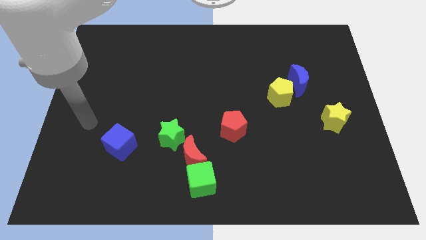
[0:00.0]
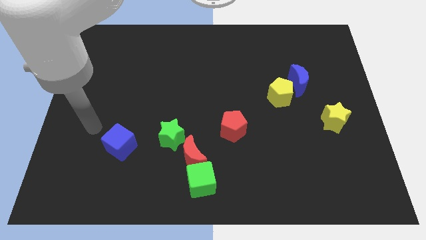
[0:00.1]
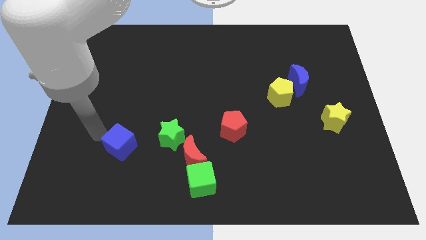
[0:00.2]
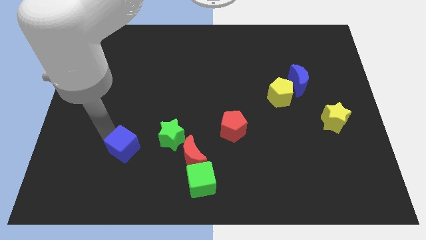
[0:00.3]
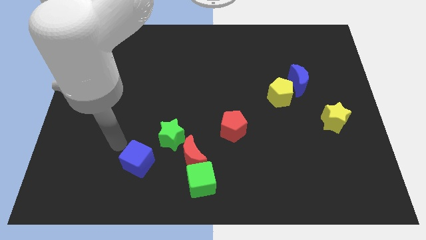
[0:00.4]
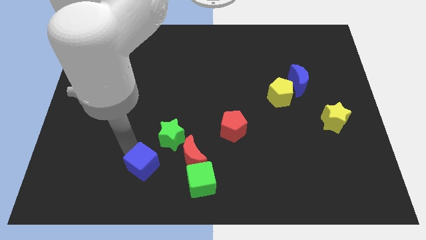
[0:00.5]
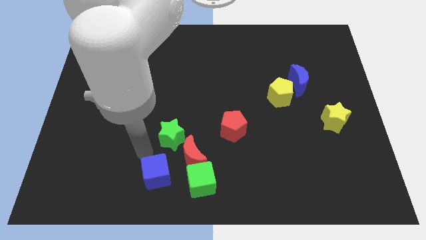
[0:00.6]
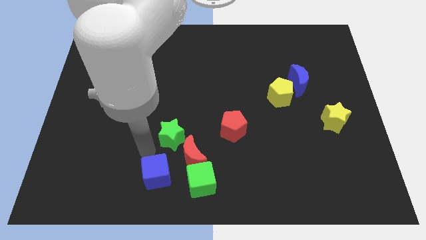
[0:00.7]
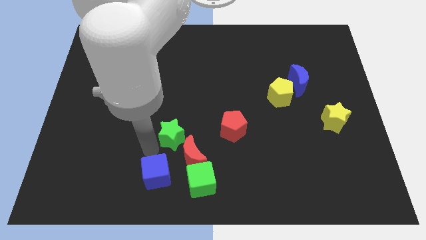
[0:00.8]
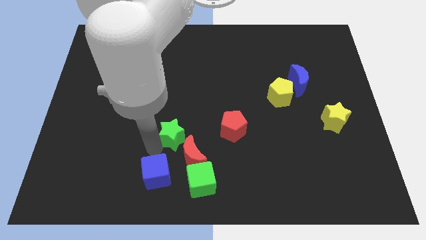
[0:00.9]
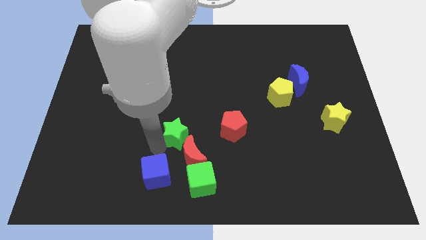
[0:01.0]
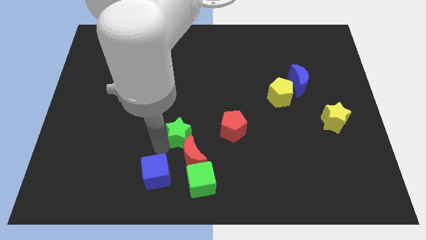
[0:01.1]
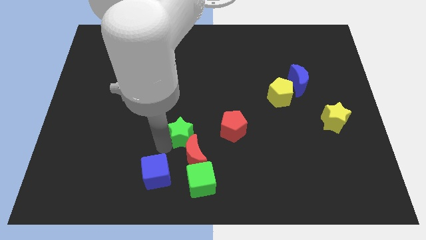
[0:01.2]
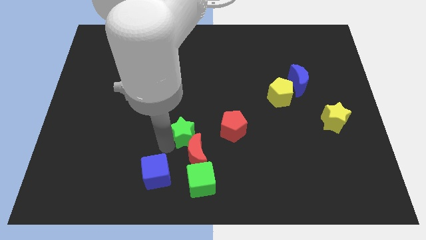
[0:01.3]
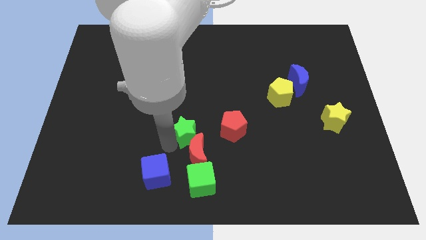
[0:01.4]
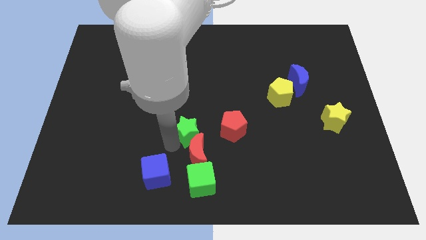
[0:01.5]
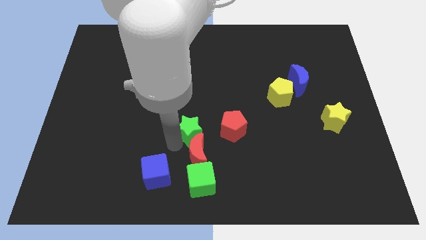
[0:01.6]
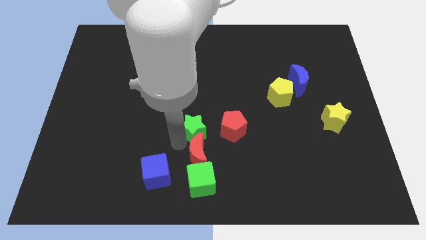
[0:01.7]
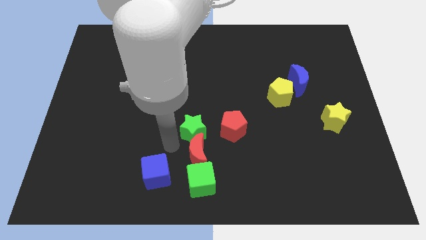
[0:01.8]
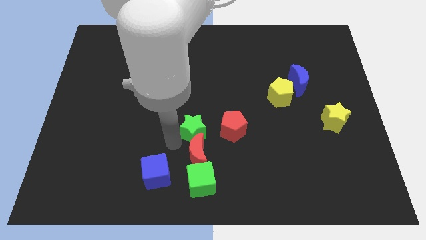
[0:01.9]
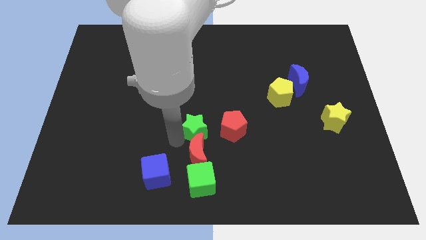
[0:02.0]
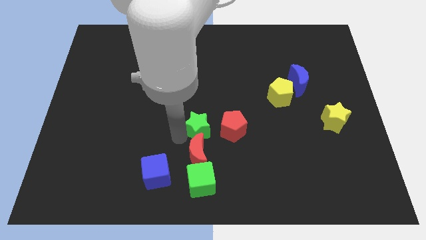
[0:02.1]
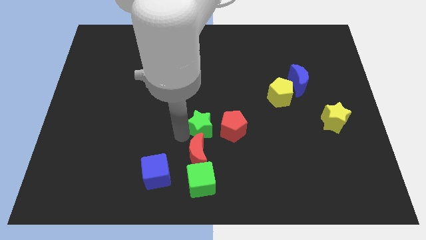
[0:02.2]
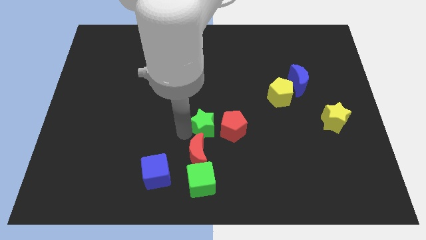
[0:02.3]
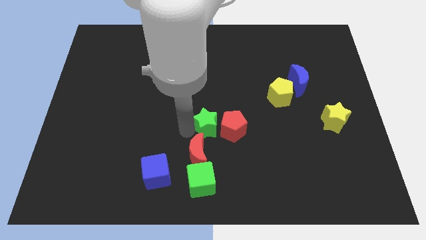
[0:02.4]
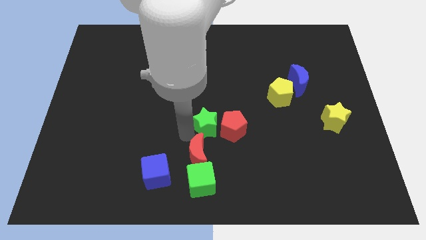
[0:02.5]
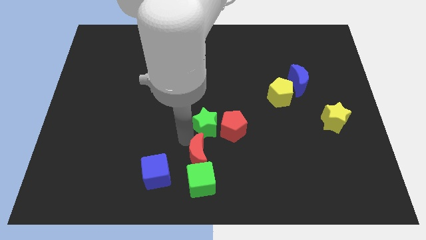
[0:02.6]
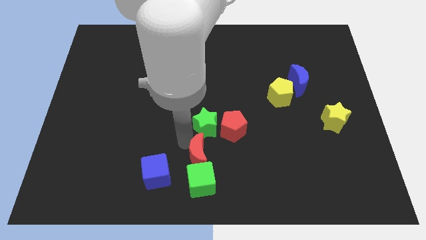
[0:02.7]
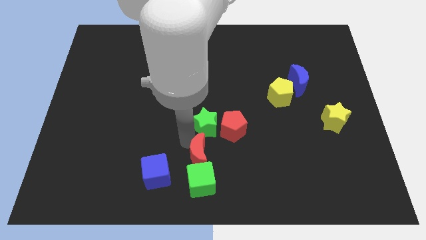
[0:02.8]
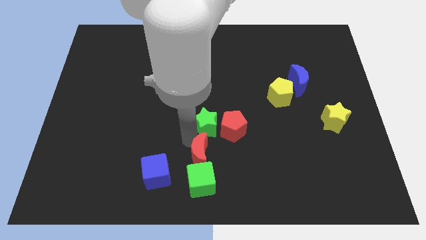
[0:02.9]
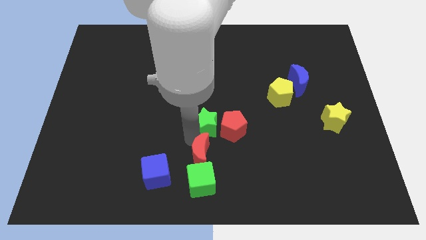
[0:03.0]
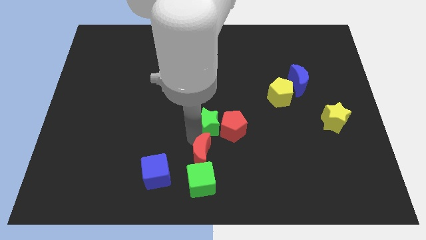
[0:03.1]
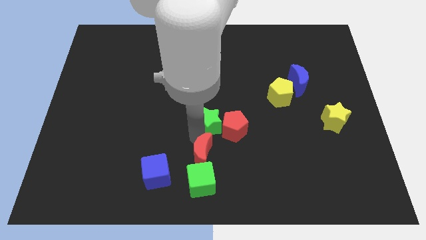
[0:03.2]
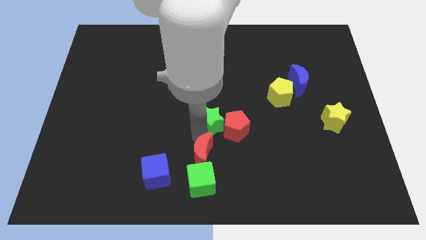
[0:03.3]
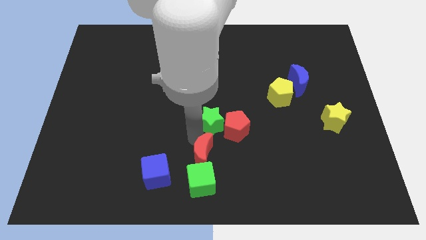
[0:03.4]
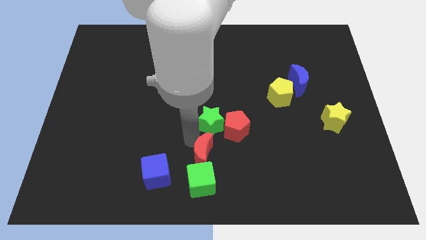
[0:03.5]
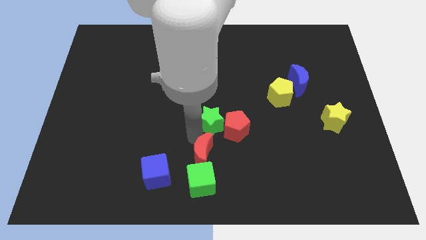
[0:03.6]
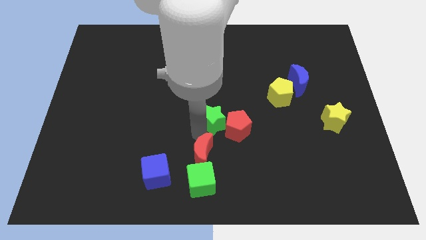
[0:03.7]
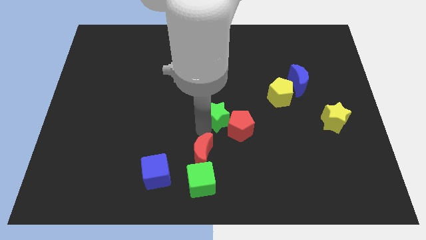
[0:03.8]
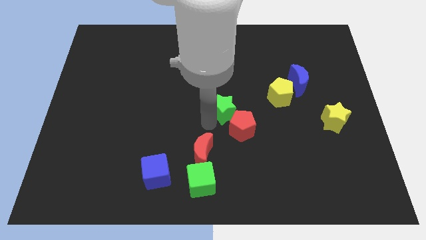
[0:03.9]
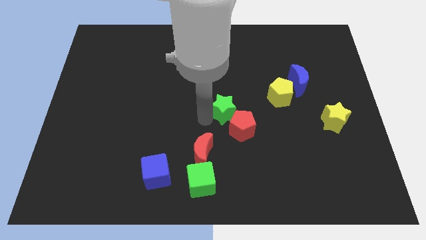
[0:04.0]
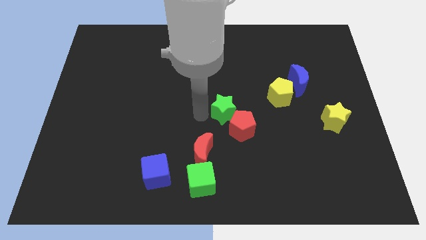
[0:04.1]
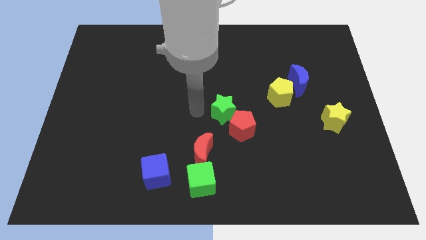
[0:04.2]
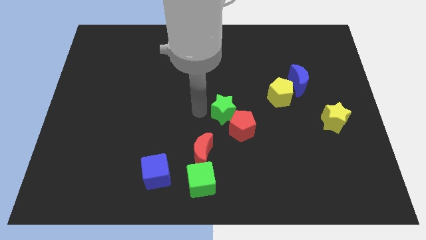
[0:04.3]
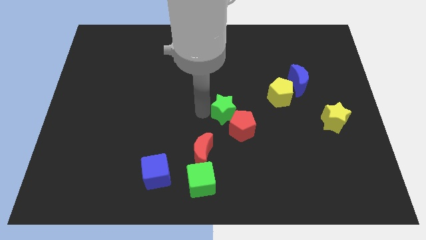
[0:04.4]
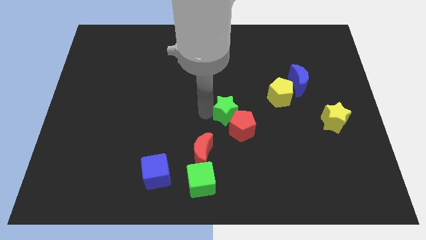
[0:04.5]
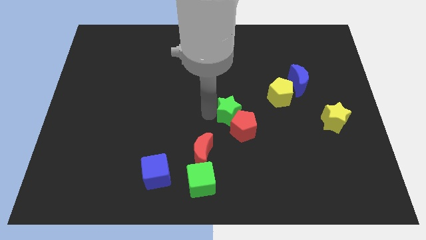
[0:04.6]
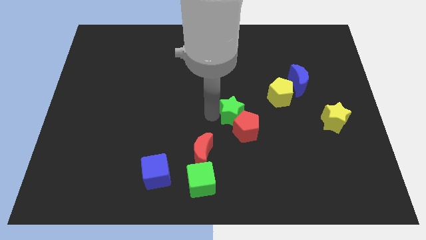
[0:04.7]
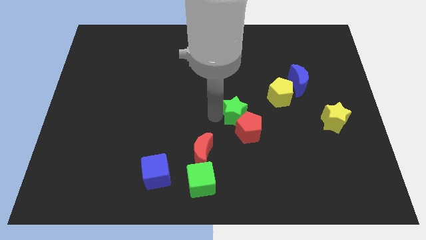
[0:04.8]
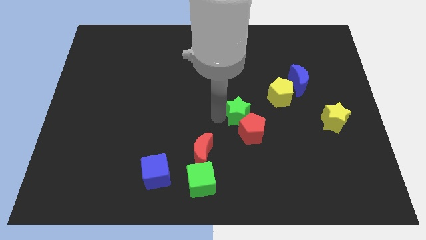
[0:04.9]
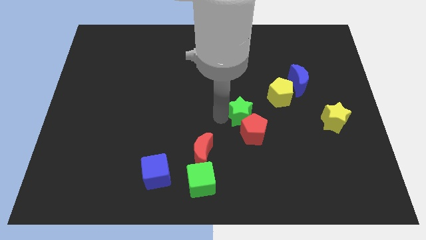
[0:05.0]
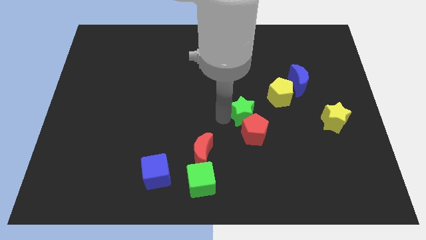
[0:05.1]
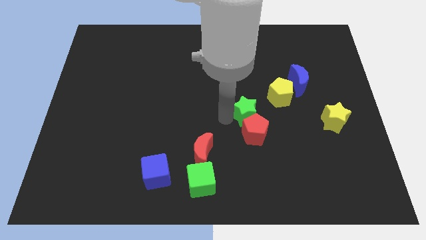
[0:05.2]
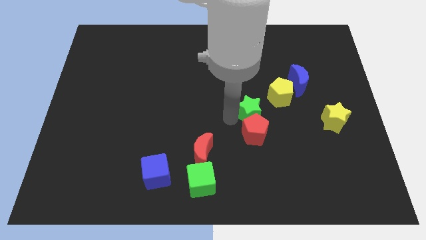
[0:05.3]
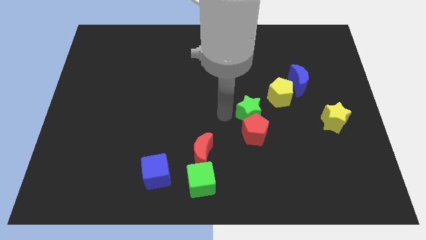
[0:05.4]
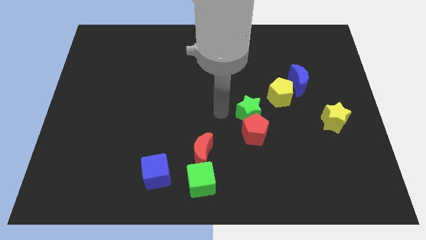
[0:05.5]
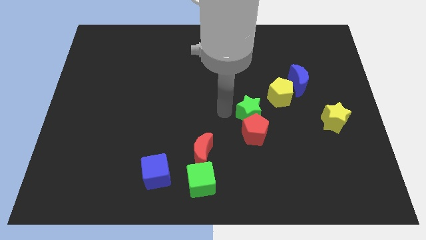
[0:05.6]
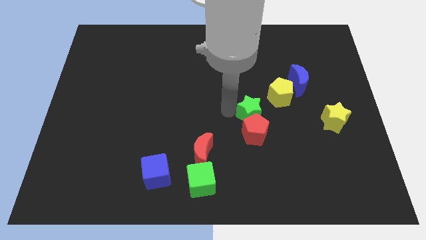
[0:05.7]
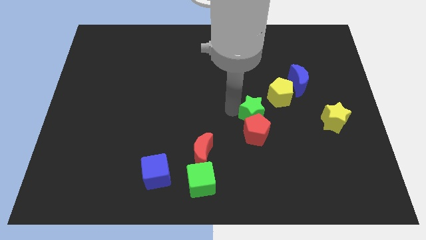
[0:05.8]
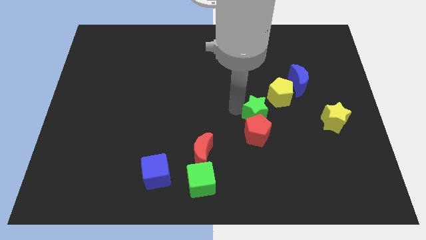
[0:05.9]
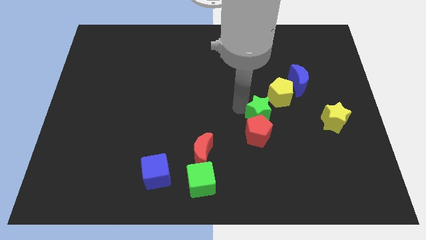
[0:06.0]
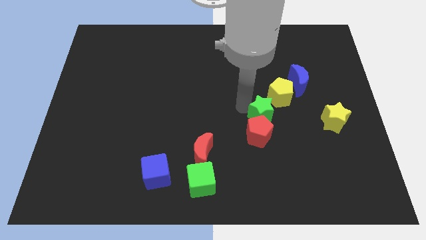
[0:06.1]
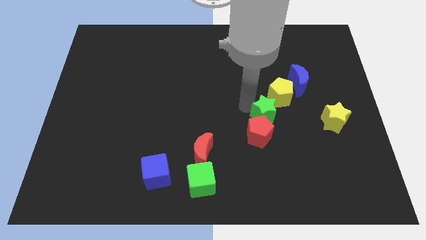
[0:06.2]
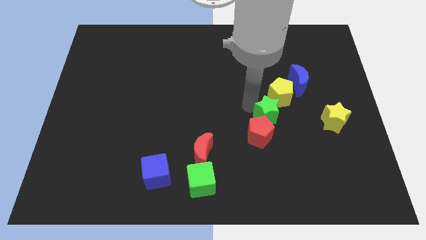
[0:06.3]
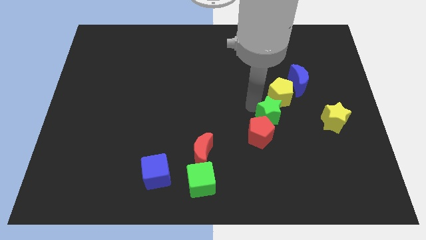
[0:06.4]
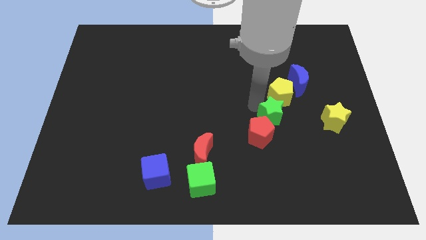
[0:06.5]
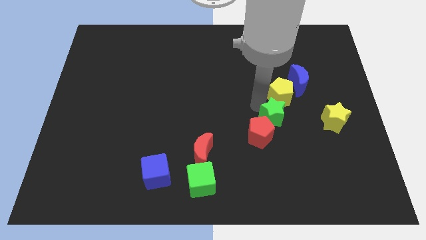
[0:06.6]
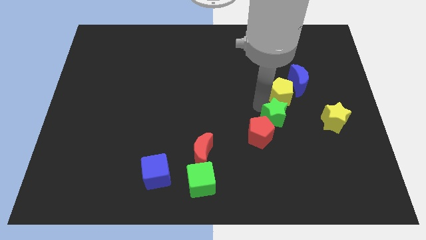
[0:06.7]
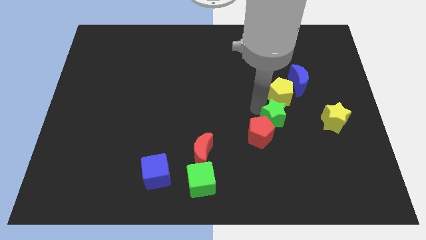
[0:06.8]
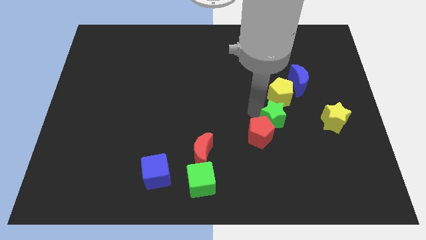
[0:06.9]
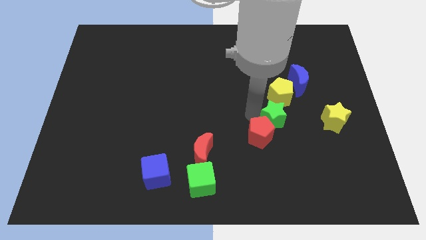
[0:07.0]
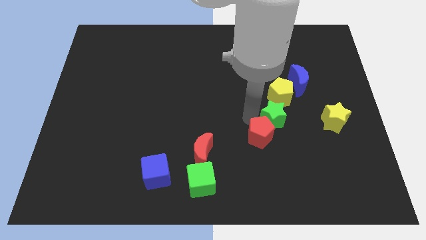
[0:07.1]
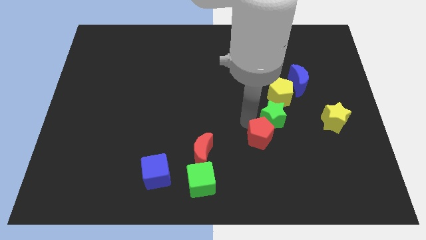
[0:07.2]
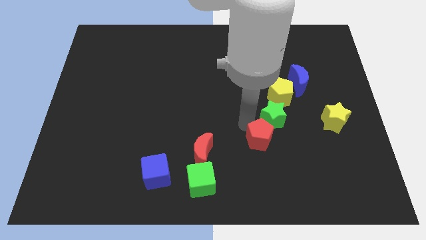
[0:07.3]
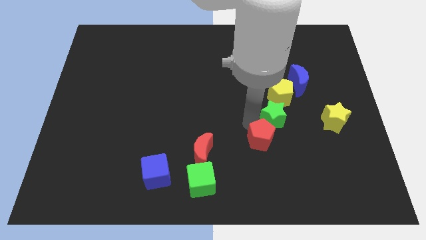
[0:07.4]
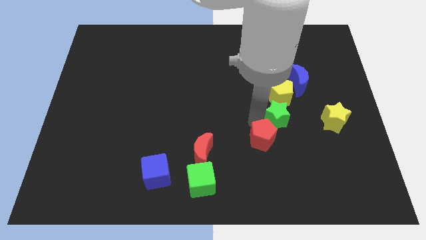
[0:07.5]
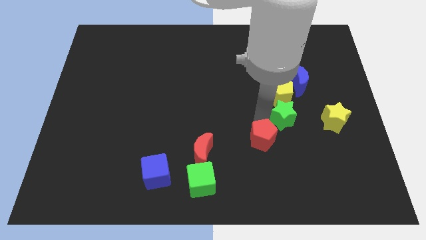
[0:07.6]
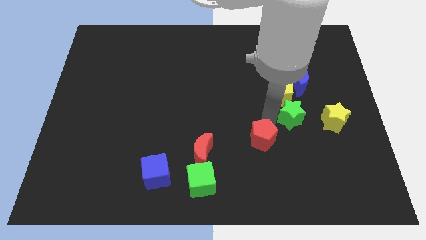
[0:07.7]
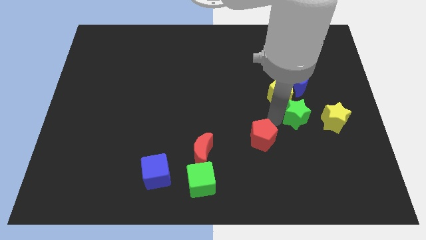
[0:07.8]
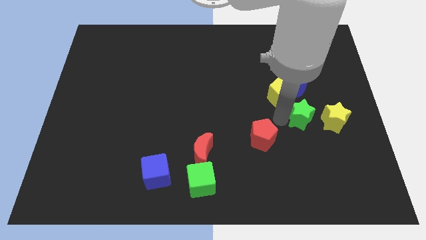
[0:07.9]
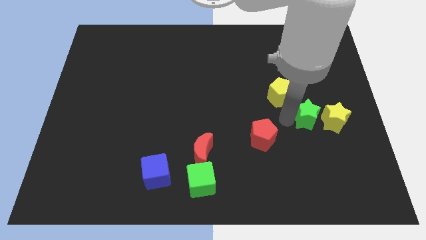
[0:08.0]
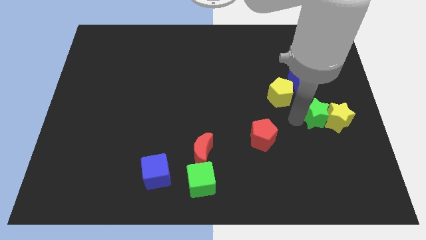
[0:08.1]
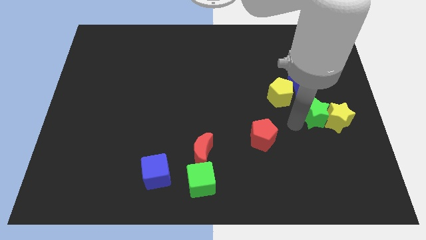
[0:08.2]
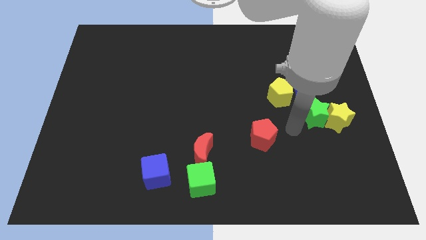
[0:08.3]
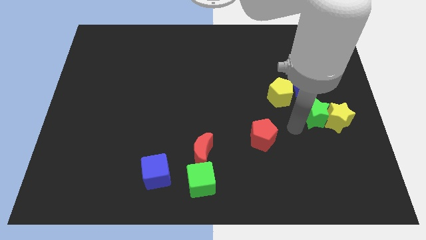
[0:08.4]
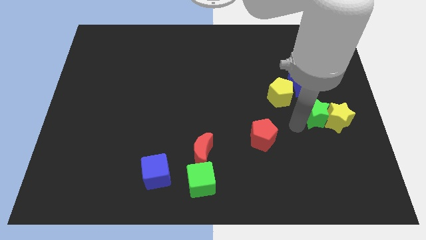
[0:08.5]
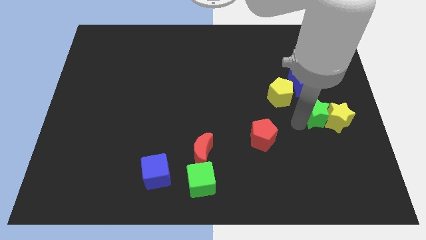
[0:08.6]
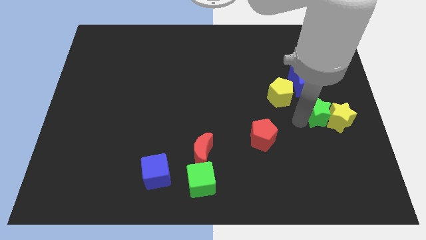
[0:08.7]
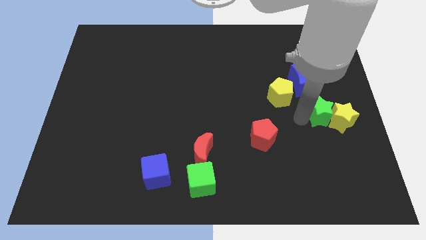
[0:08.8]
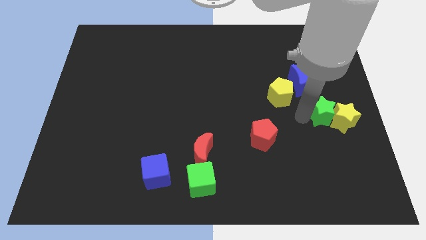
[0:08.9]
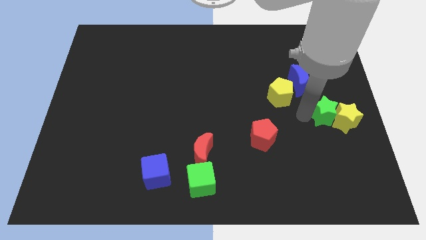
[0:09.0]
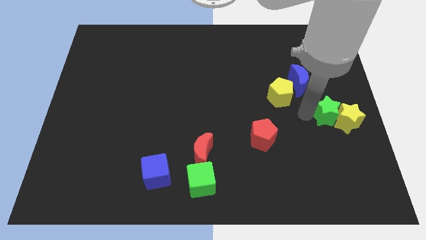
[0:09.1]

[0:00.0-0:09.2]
move the green star to the right side of the board
